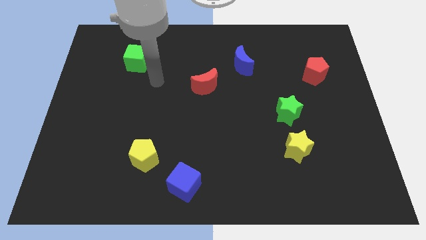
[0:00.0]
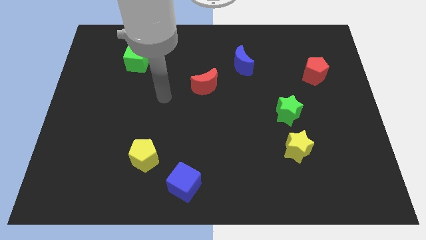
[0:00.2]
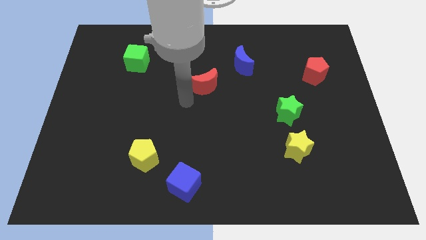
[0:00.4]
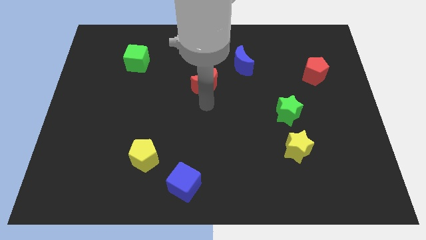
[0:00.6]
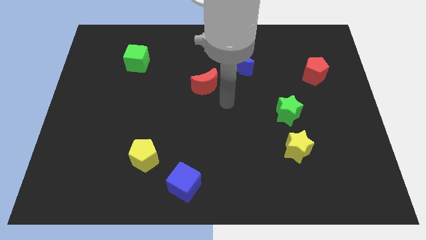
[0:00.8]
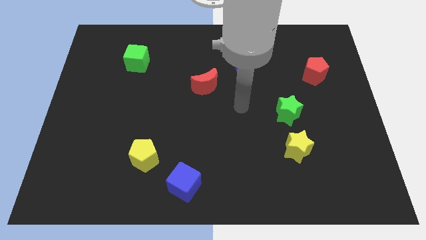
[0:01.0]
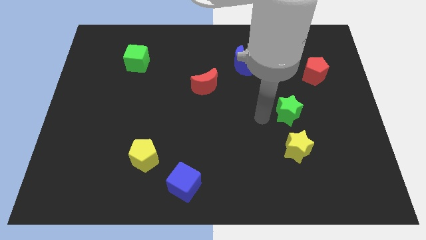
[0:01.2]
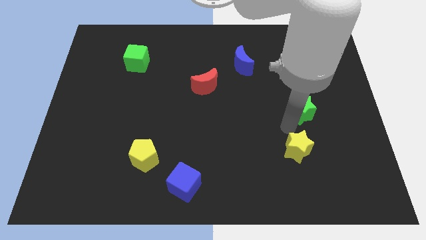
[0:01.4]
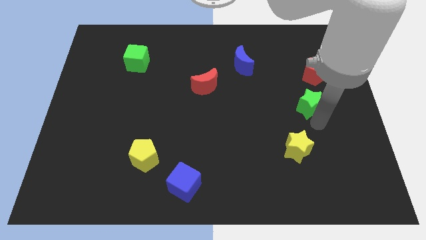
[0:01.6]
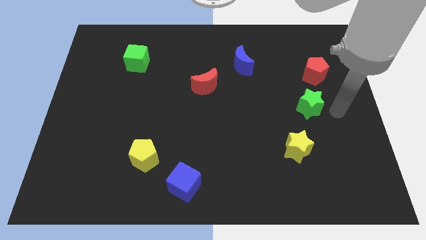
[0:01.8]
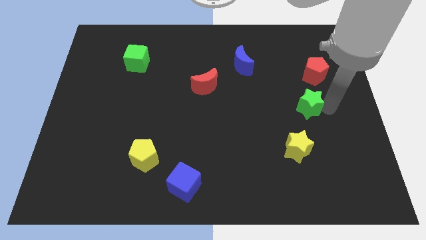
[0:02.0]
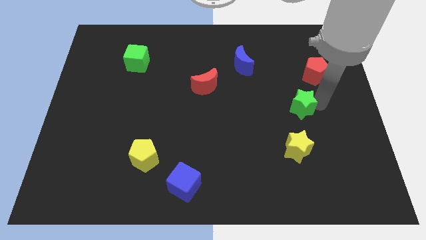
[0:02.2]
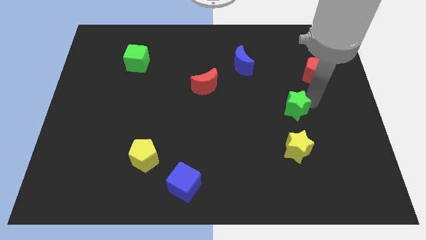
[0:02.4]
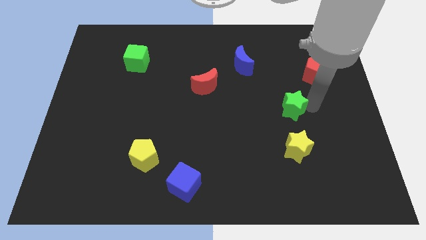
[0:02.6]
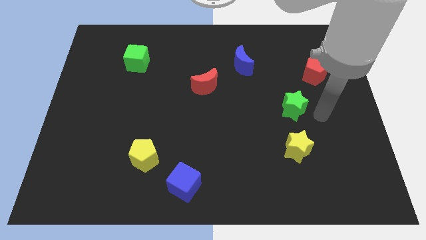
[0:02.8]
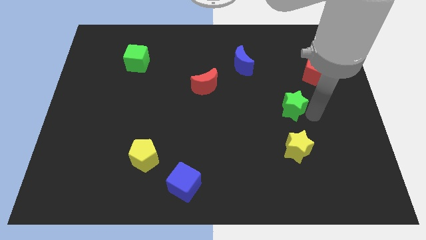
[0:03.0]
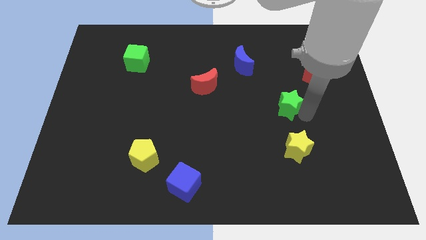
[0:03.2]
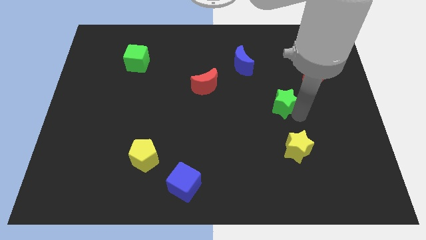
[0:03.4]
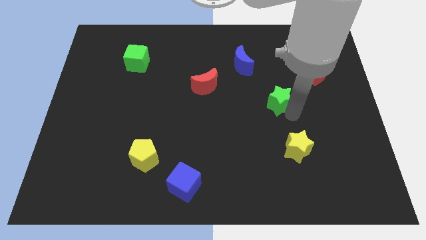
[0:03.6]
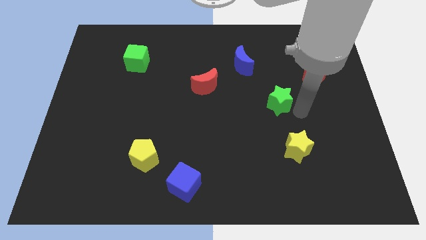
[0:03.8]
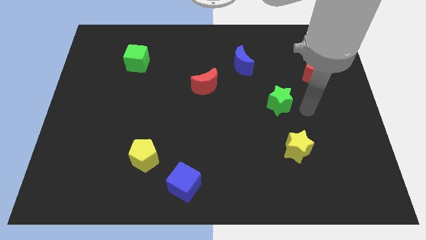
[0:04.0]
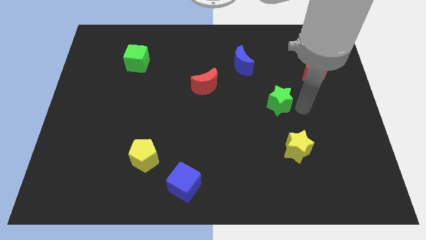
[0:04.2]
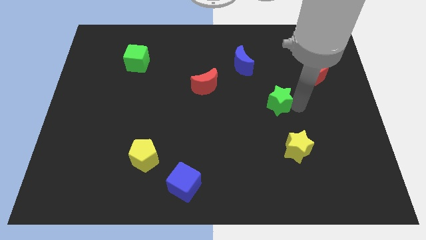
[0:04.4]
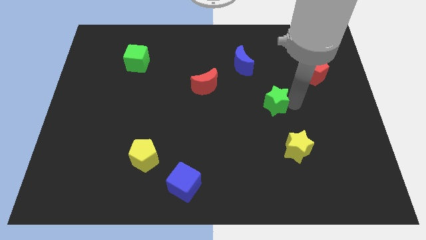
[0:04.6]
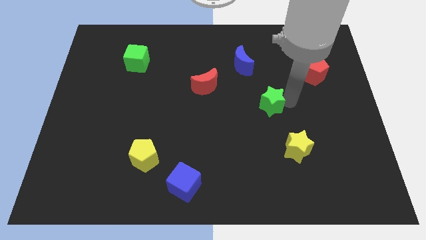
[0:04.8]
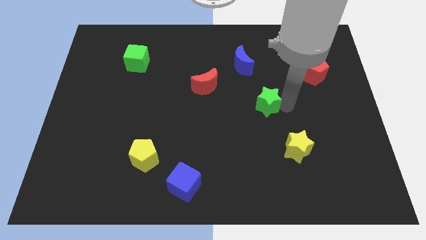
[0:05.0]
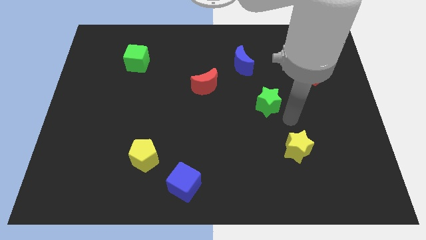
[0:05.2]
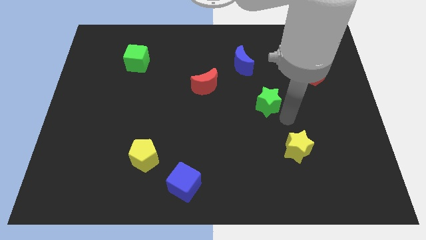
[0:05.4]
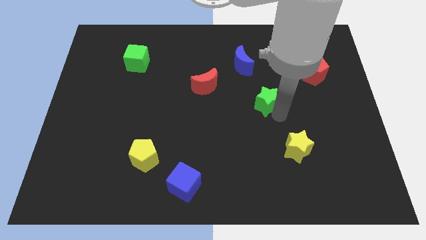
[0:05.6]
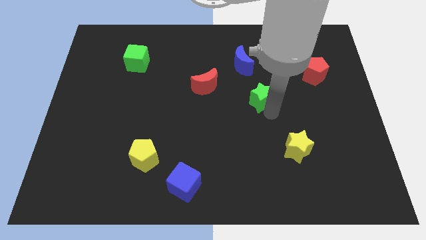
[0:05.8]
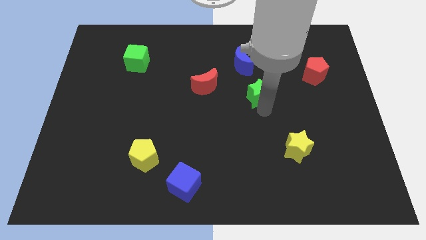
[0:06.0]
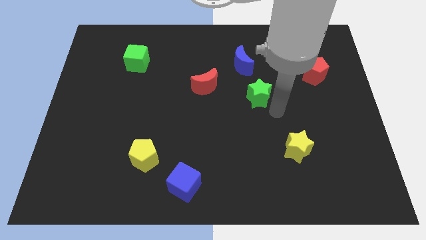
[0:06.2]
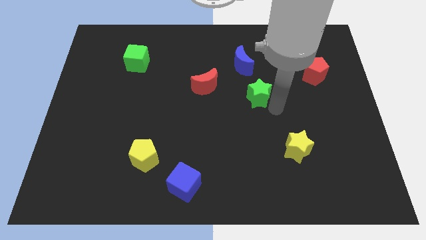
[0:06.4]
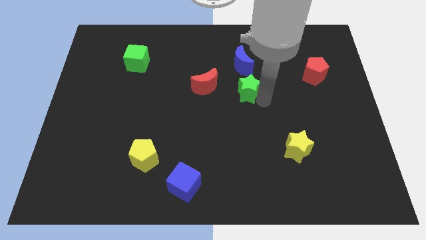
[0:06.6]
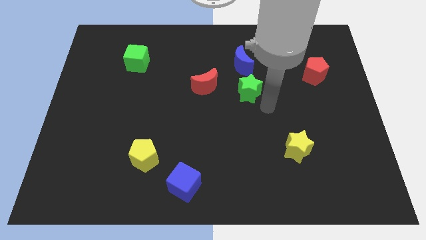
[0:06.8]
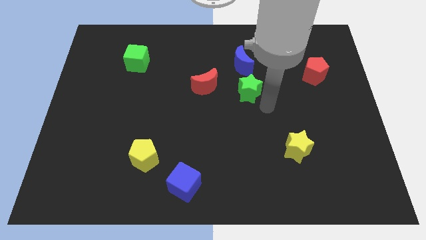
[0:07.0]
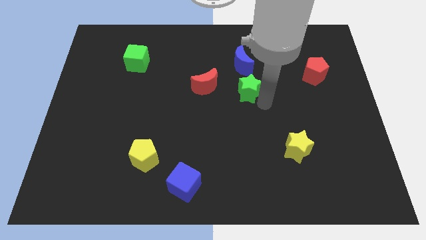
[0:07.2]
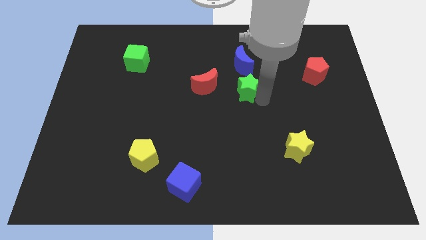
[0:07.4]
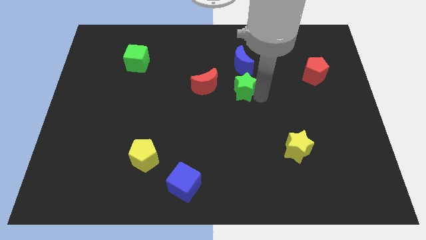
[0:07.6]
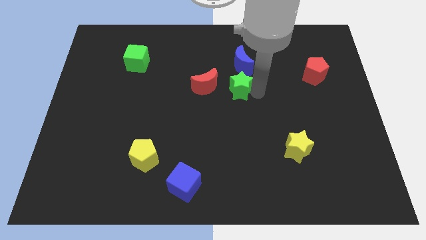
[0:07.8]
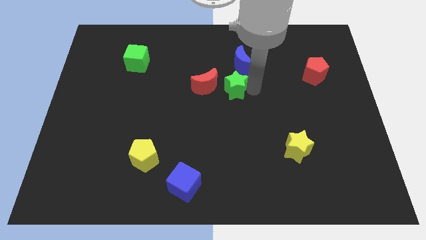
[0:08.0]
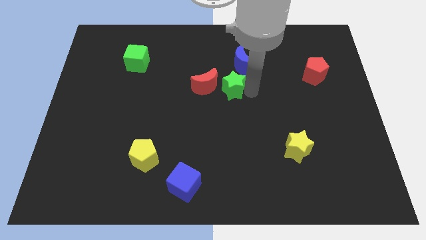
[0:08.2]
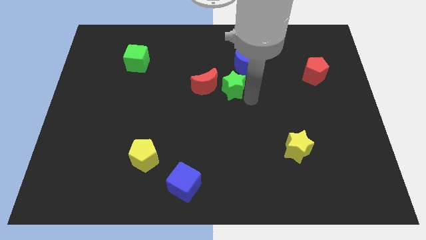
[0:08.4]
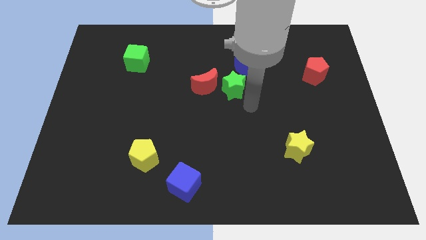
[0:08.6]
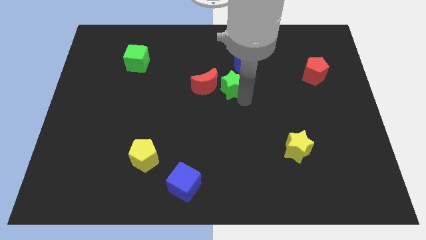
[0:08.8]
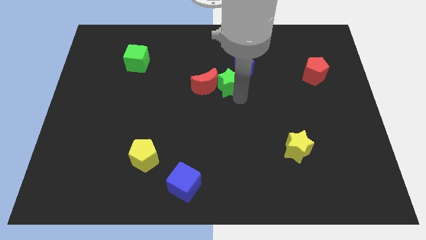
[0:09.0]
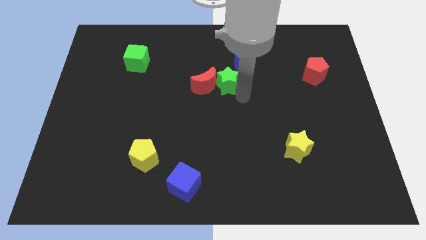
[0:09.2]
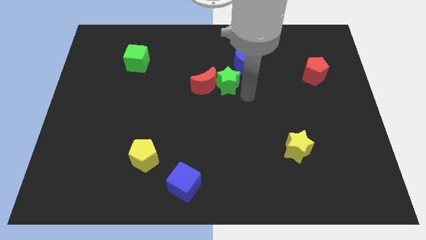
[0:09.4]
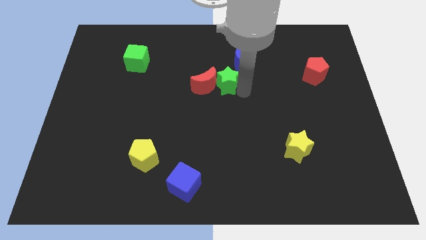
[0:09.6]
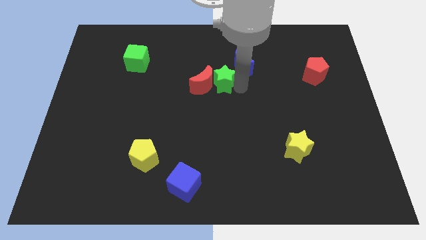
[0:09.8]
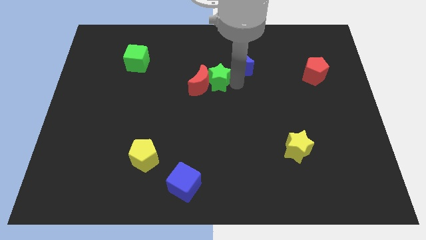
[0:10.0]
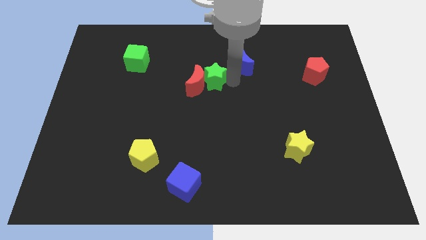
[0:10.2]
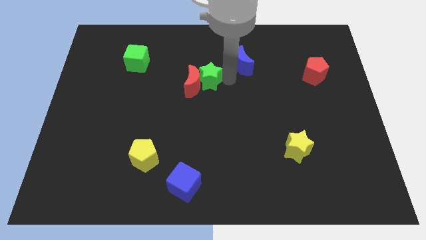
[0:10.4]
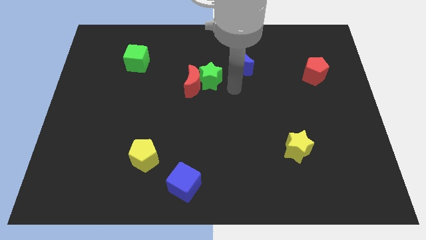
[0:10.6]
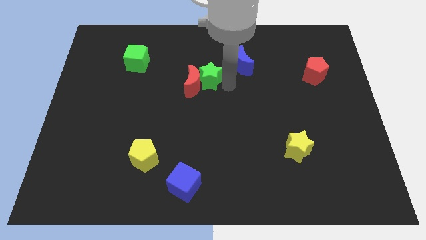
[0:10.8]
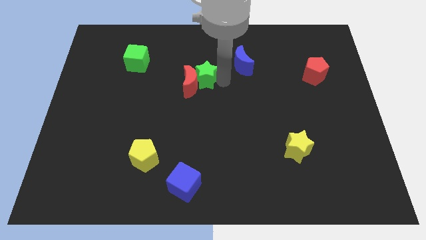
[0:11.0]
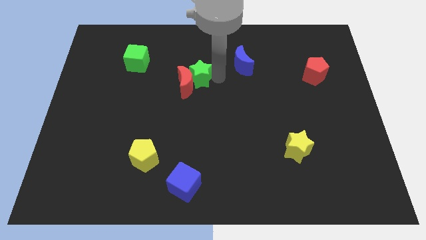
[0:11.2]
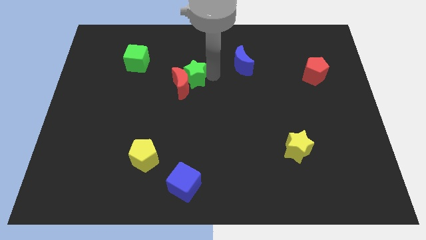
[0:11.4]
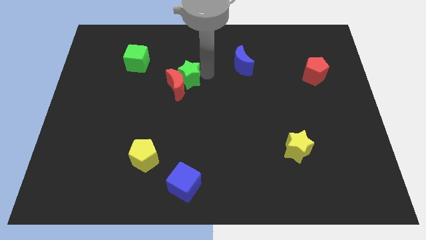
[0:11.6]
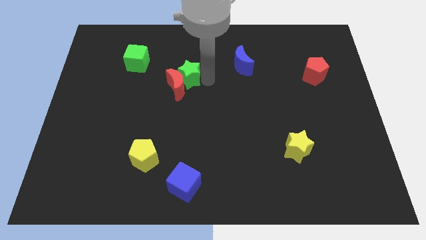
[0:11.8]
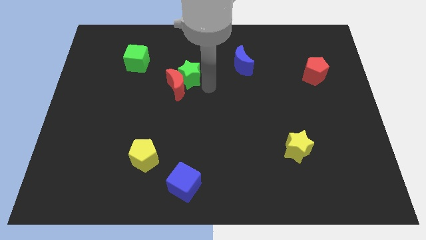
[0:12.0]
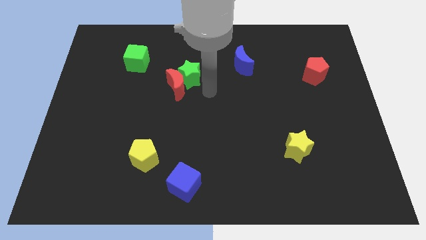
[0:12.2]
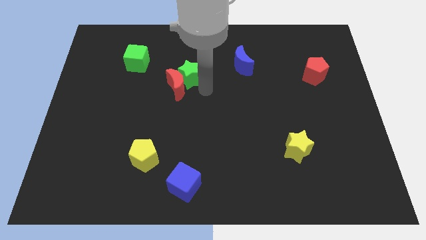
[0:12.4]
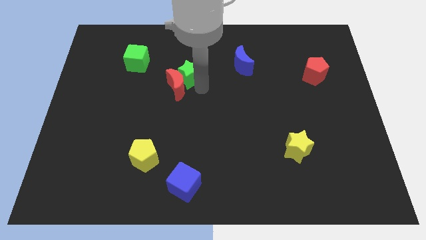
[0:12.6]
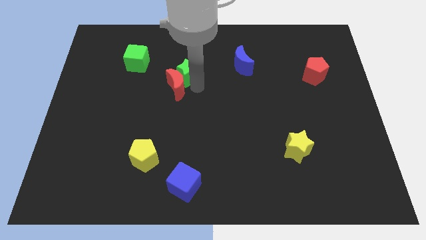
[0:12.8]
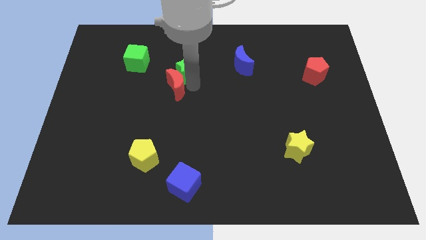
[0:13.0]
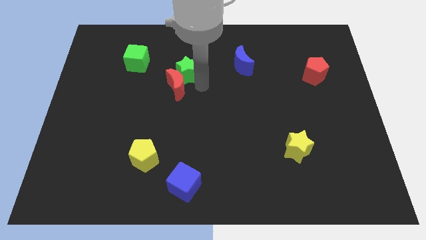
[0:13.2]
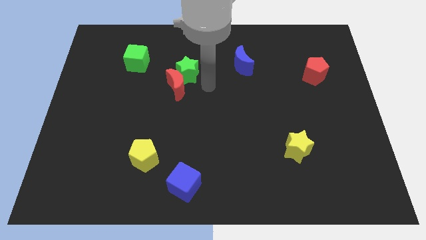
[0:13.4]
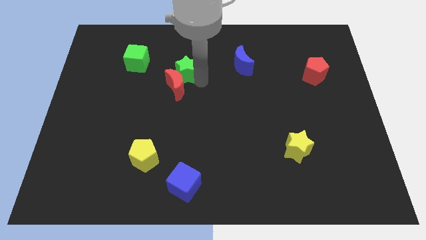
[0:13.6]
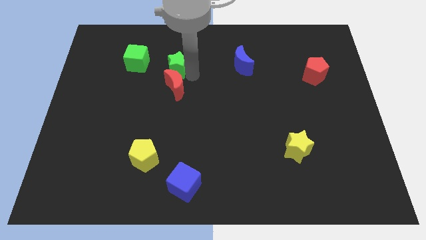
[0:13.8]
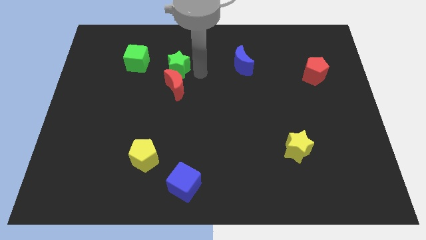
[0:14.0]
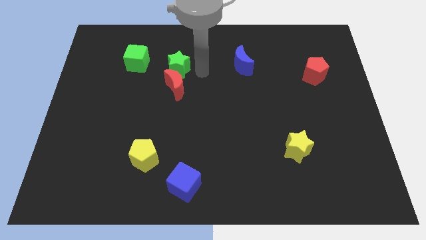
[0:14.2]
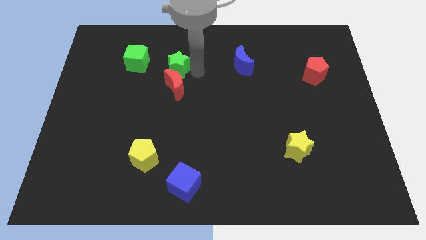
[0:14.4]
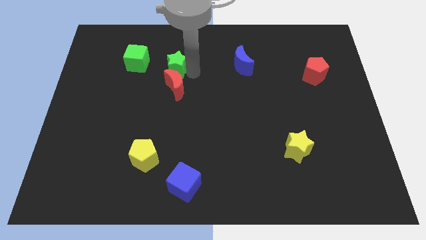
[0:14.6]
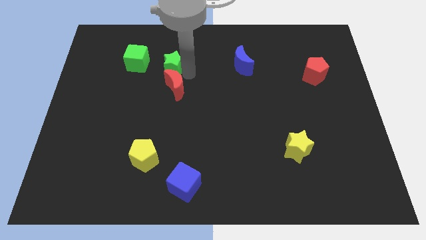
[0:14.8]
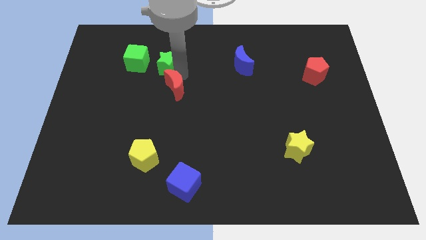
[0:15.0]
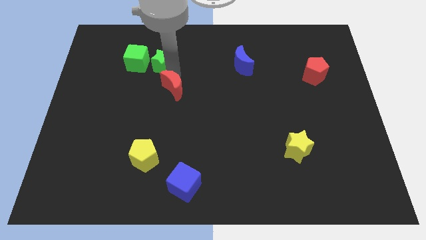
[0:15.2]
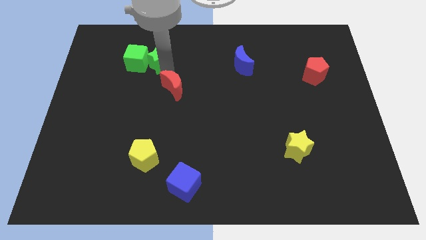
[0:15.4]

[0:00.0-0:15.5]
slide the green star towards the green cube

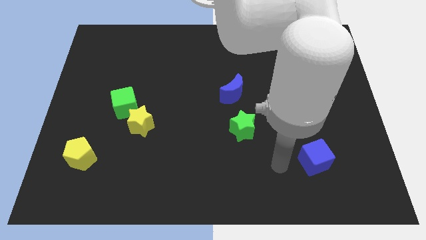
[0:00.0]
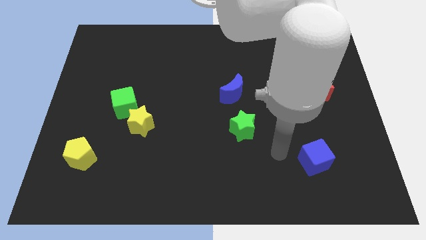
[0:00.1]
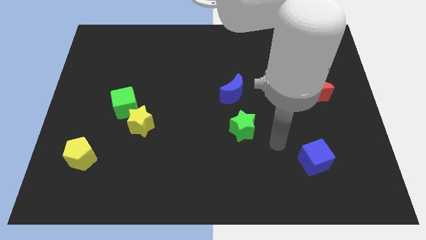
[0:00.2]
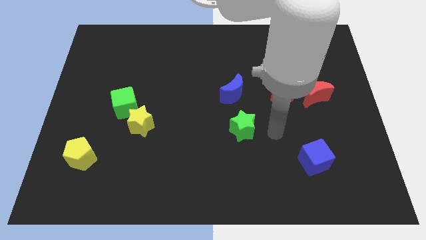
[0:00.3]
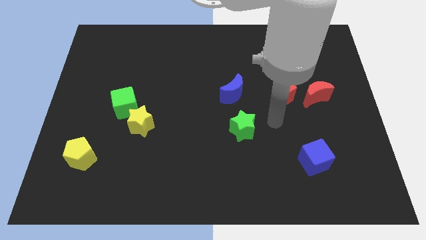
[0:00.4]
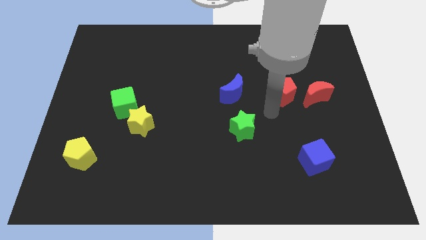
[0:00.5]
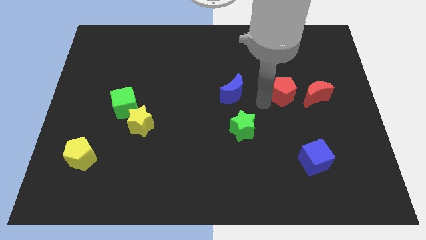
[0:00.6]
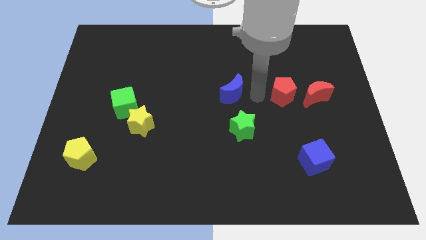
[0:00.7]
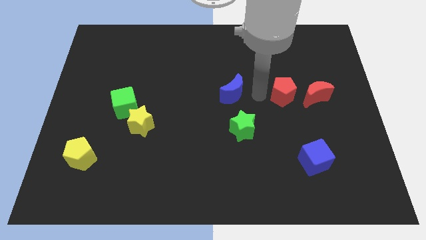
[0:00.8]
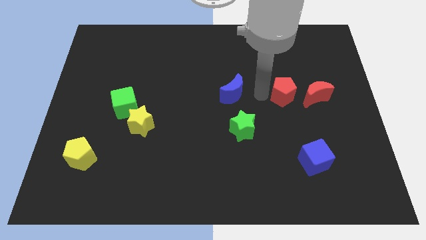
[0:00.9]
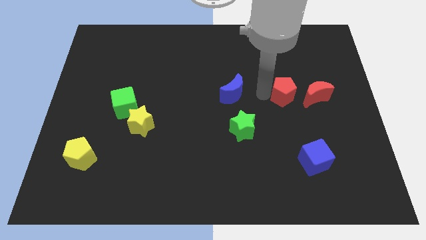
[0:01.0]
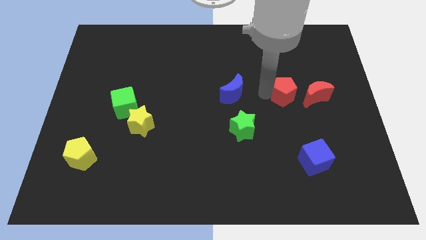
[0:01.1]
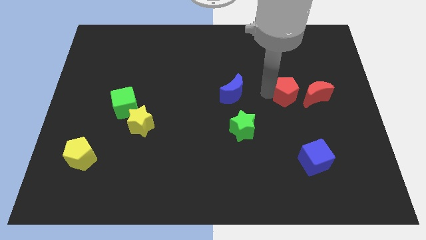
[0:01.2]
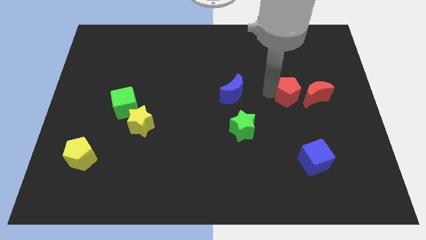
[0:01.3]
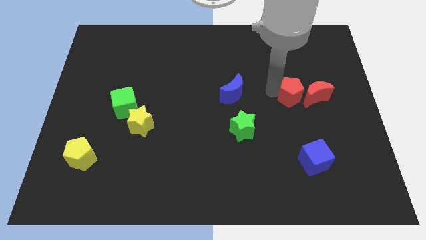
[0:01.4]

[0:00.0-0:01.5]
put the red pentagon towards the red moon
